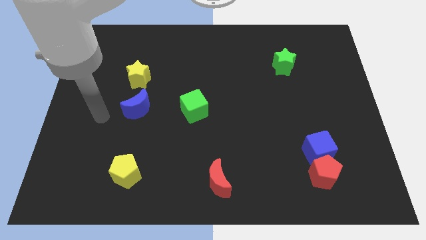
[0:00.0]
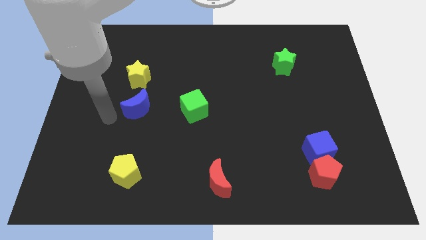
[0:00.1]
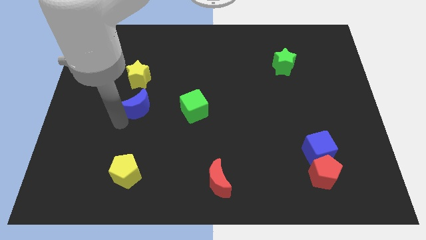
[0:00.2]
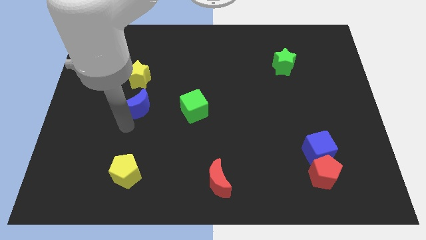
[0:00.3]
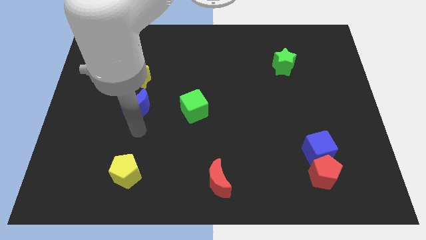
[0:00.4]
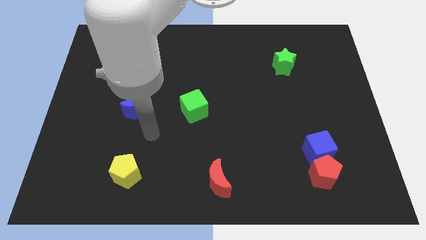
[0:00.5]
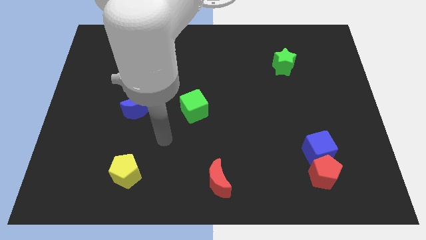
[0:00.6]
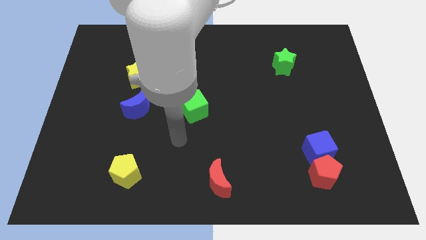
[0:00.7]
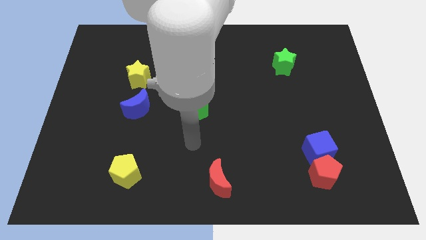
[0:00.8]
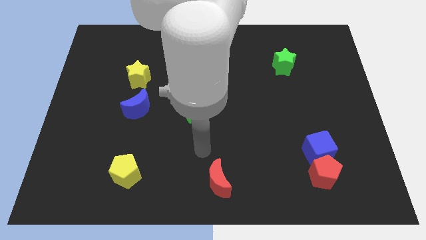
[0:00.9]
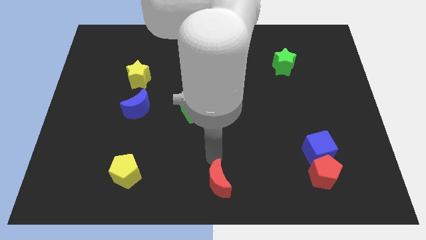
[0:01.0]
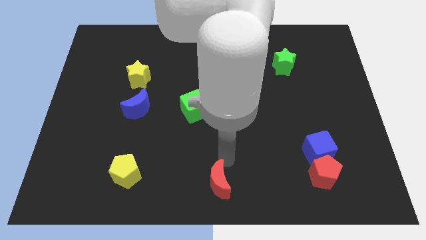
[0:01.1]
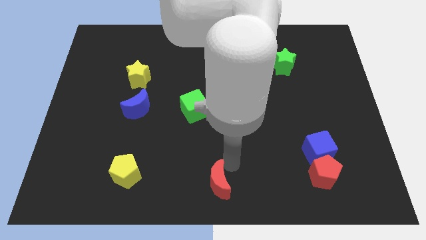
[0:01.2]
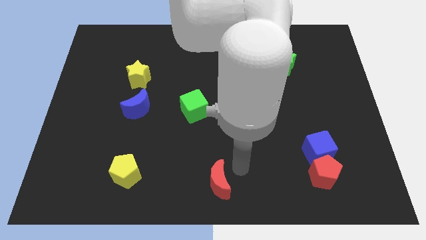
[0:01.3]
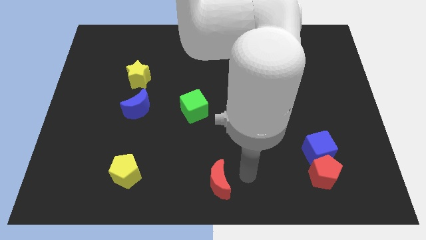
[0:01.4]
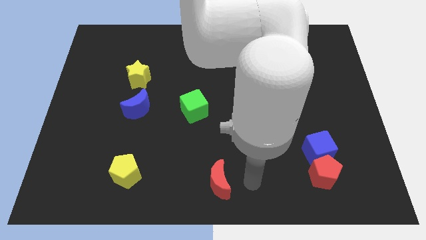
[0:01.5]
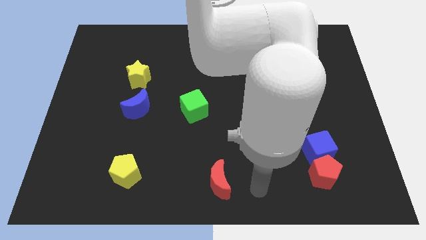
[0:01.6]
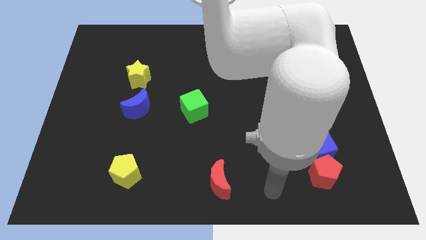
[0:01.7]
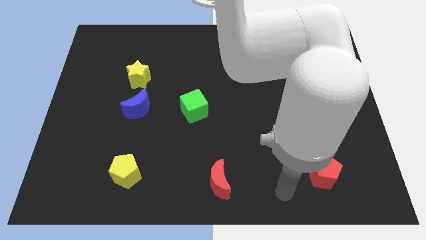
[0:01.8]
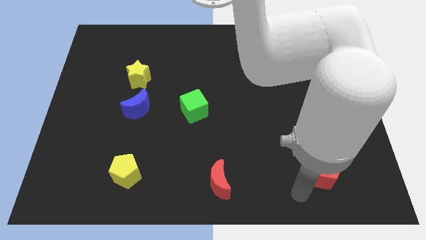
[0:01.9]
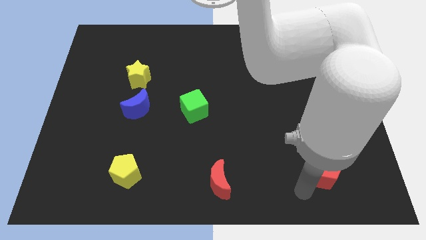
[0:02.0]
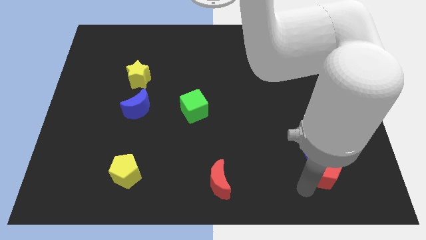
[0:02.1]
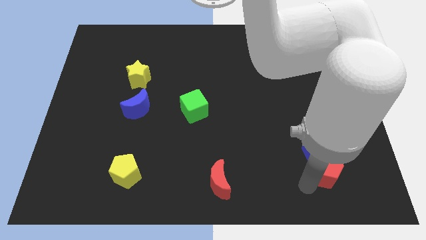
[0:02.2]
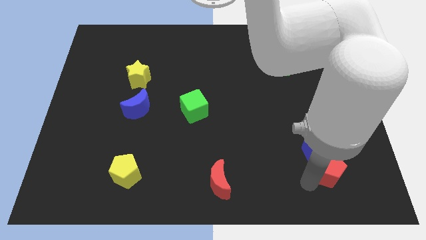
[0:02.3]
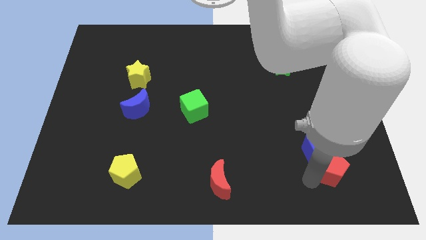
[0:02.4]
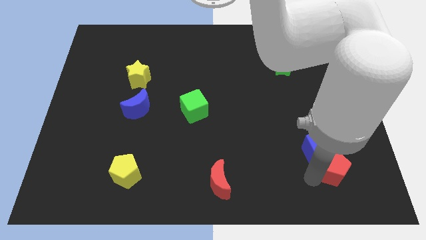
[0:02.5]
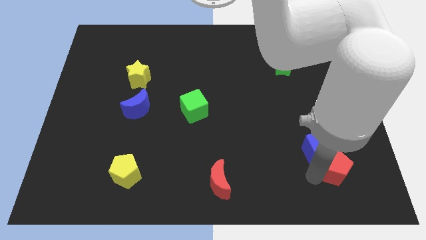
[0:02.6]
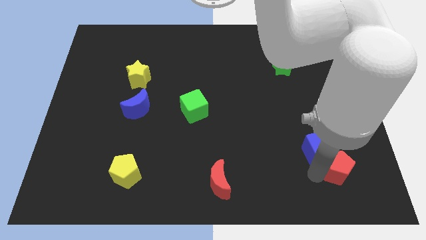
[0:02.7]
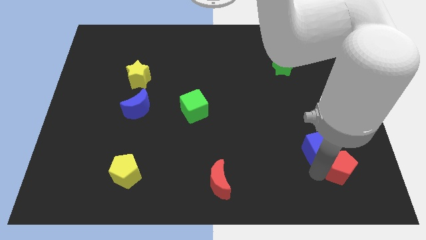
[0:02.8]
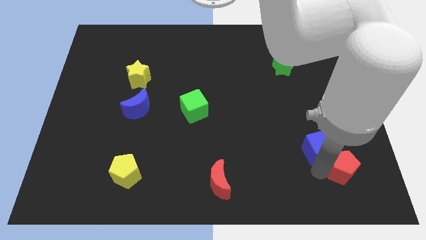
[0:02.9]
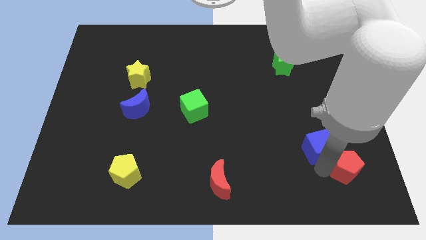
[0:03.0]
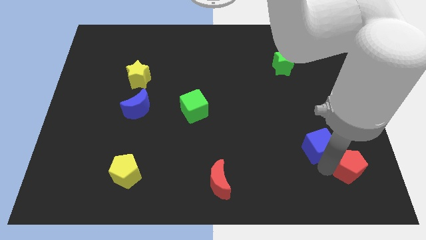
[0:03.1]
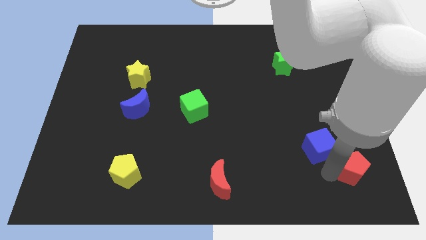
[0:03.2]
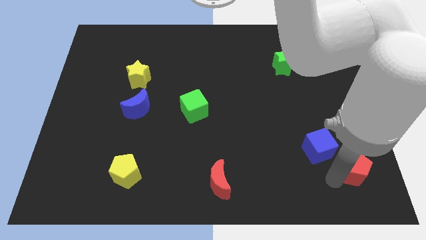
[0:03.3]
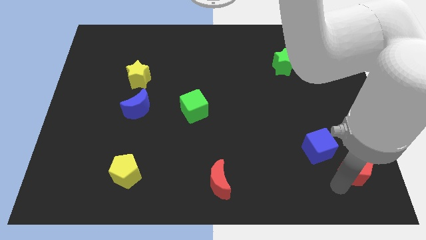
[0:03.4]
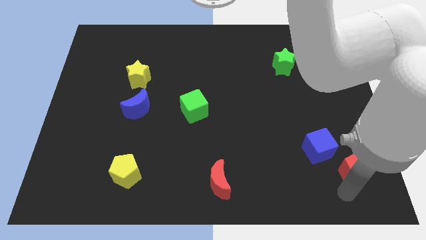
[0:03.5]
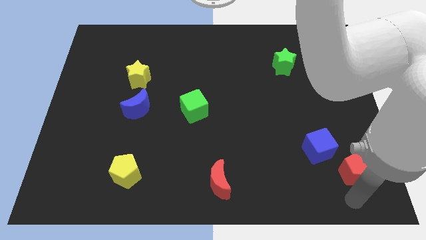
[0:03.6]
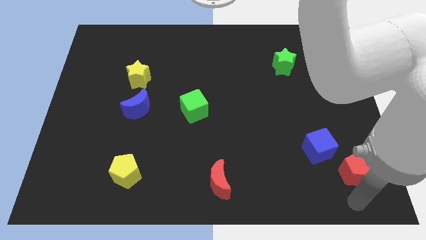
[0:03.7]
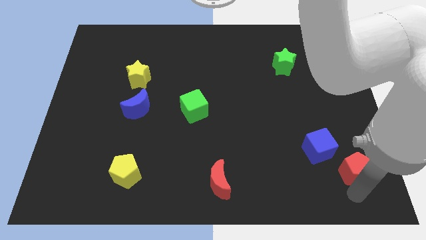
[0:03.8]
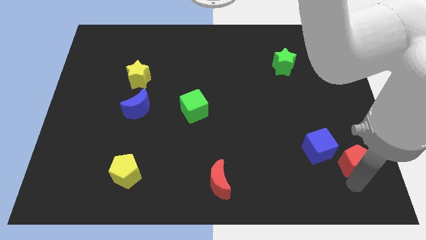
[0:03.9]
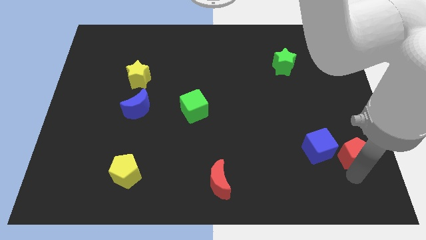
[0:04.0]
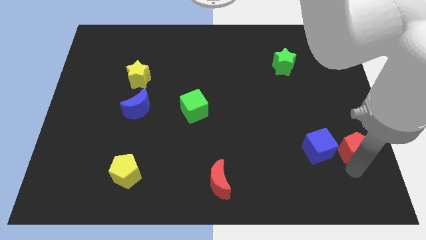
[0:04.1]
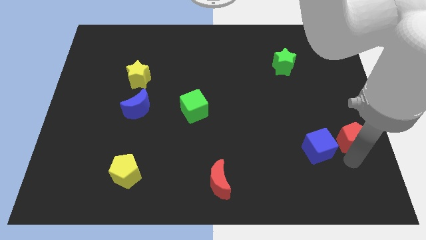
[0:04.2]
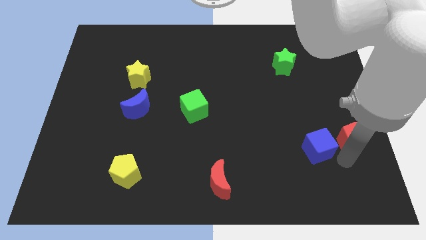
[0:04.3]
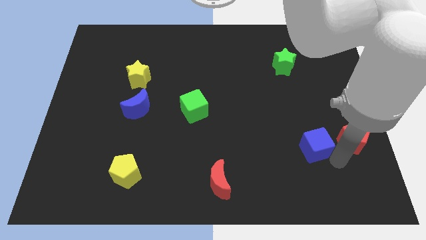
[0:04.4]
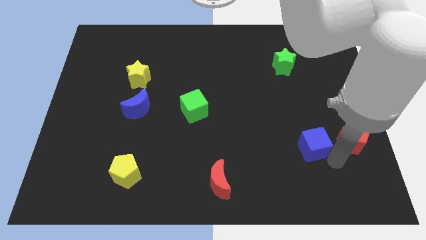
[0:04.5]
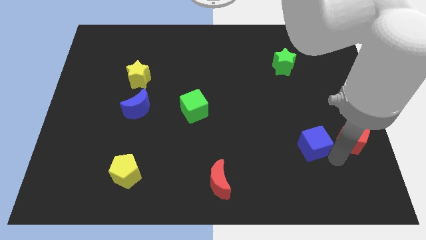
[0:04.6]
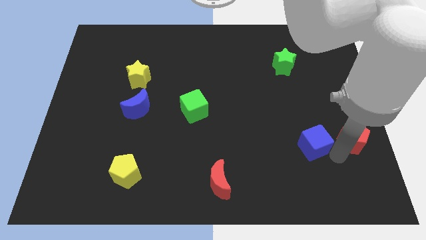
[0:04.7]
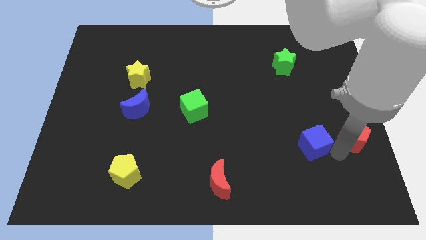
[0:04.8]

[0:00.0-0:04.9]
put the red pentagon to the center right

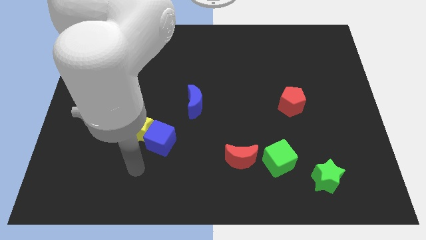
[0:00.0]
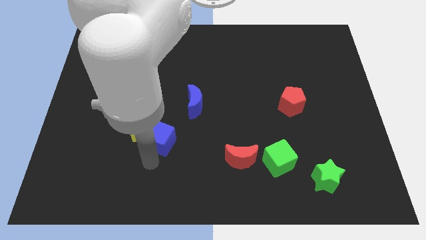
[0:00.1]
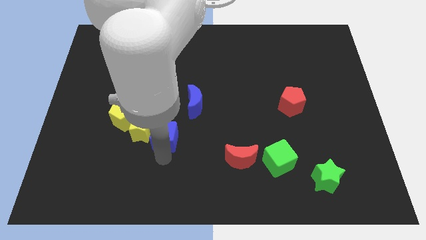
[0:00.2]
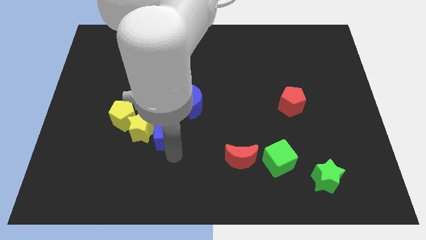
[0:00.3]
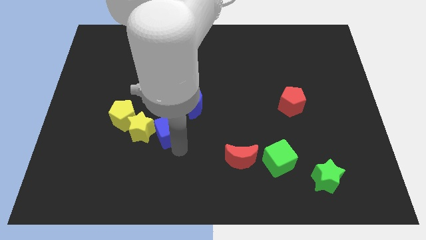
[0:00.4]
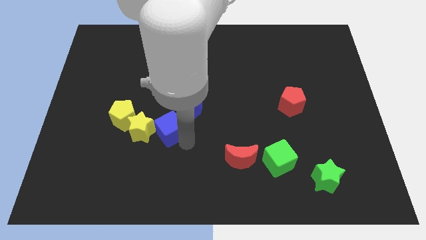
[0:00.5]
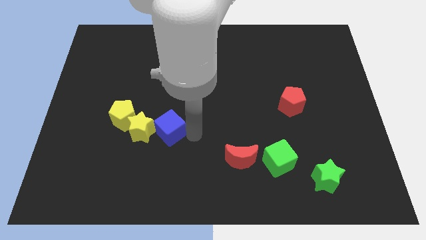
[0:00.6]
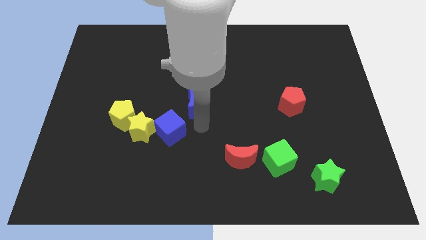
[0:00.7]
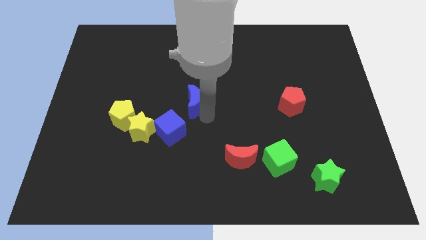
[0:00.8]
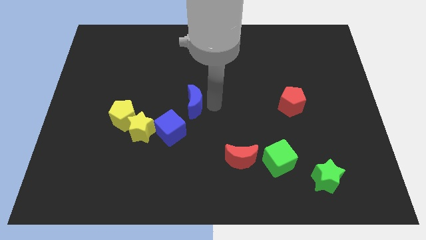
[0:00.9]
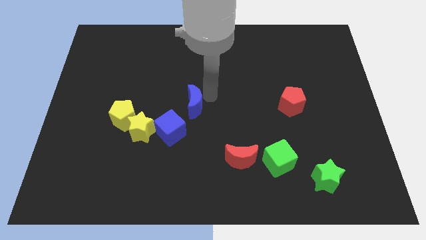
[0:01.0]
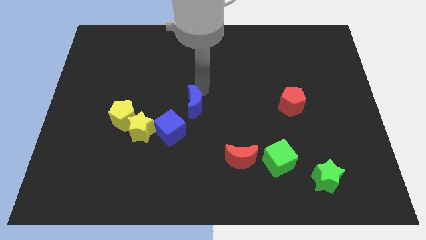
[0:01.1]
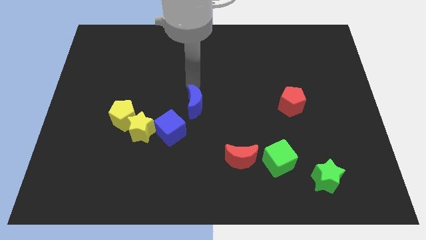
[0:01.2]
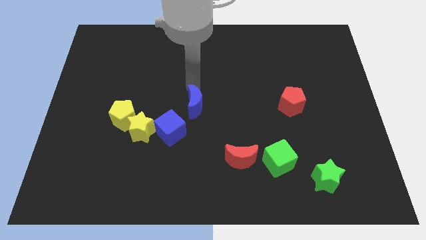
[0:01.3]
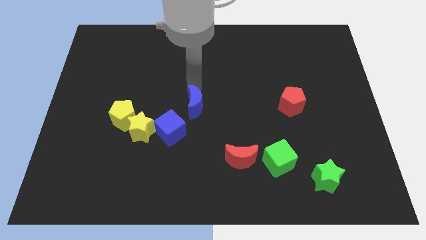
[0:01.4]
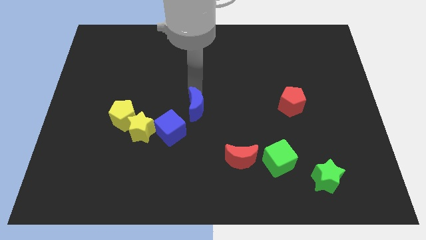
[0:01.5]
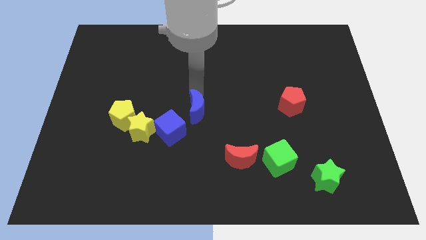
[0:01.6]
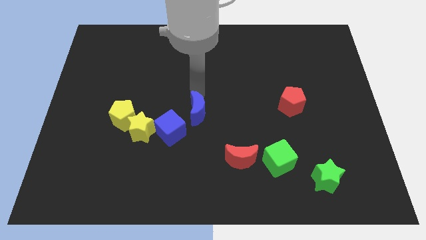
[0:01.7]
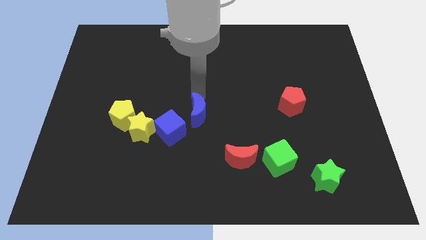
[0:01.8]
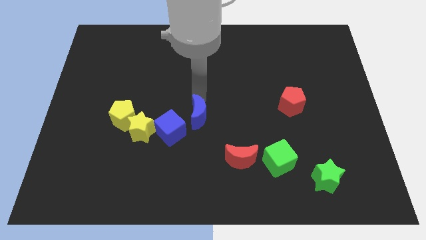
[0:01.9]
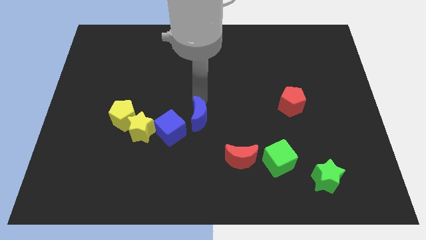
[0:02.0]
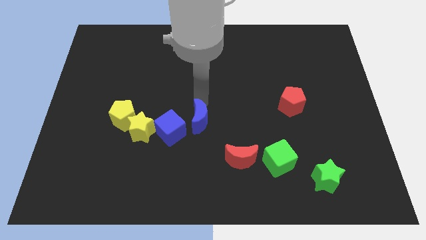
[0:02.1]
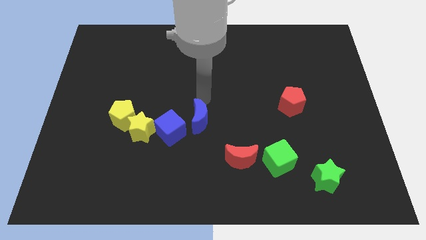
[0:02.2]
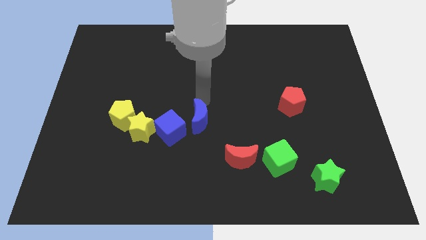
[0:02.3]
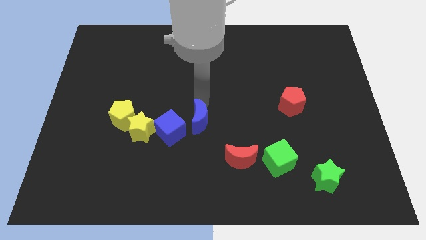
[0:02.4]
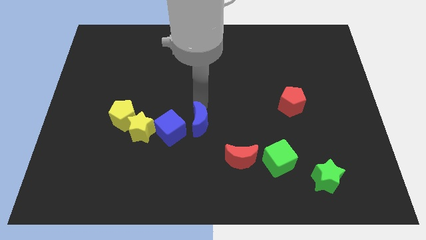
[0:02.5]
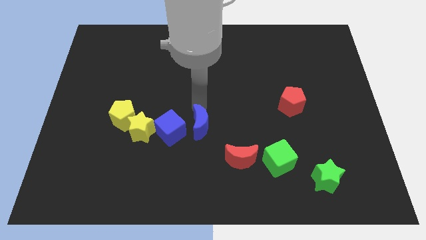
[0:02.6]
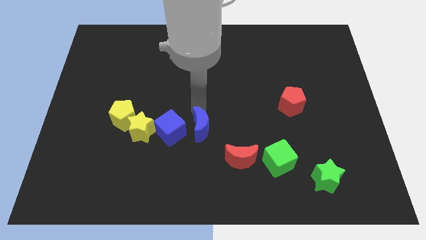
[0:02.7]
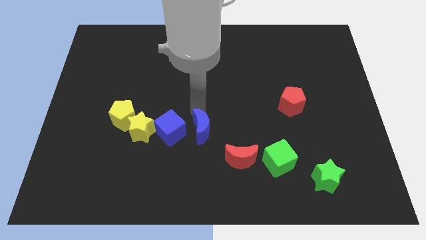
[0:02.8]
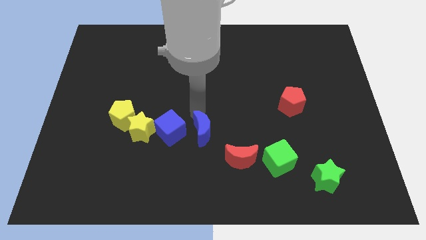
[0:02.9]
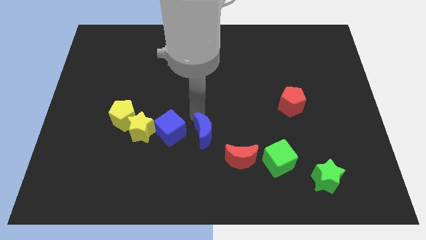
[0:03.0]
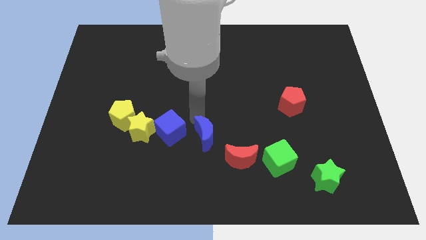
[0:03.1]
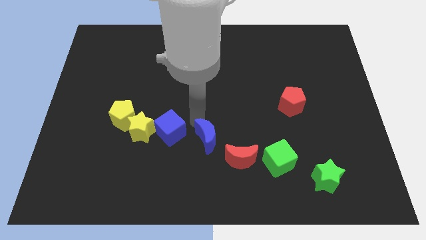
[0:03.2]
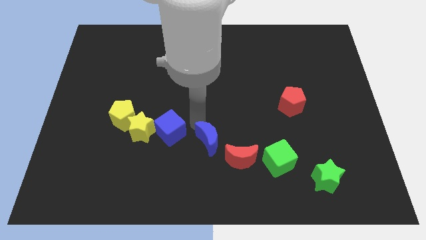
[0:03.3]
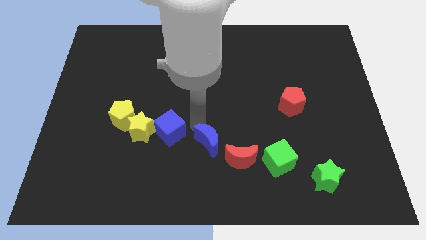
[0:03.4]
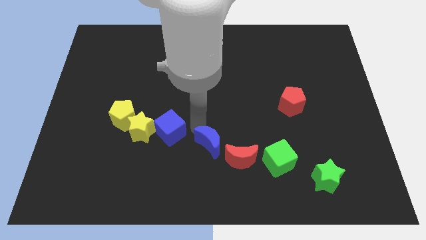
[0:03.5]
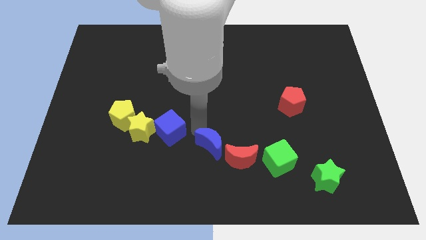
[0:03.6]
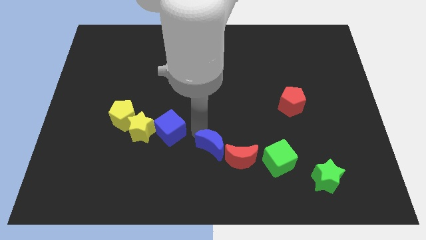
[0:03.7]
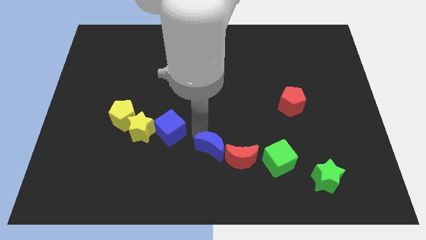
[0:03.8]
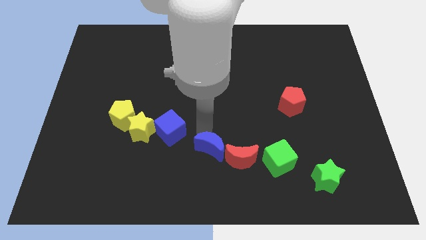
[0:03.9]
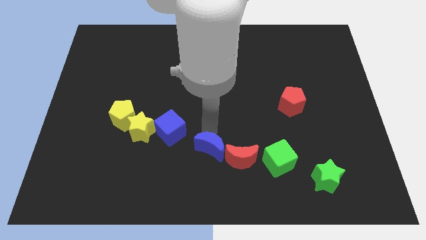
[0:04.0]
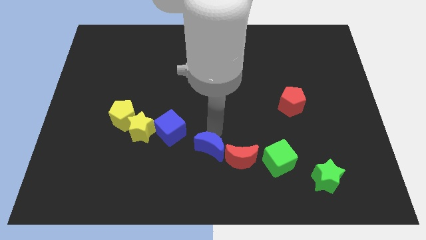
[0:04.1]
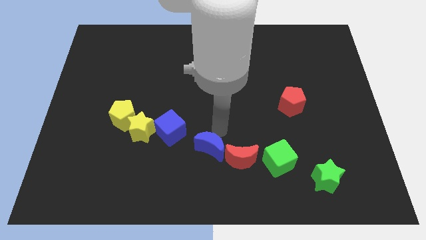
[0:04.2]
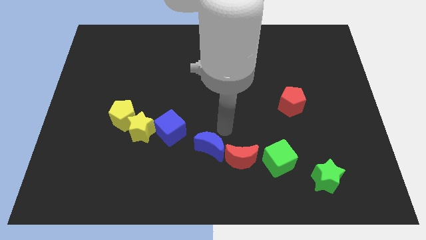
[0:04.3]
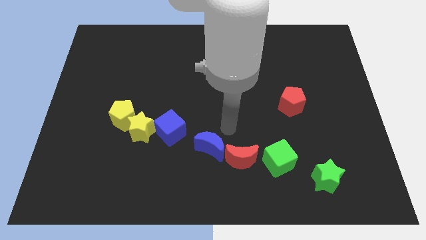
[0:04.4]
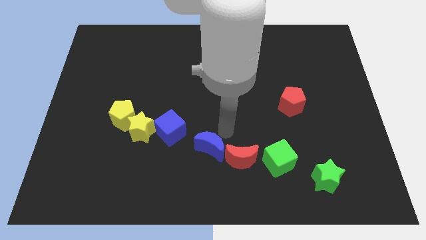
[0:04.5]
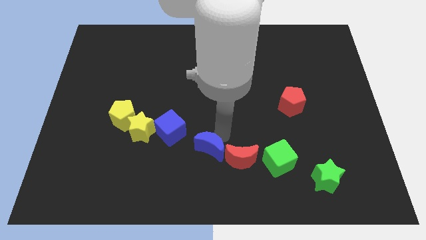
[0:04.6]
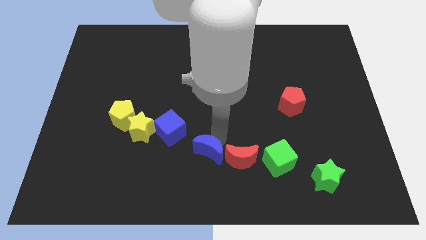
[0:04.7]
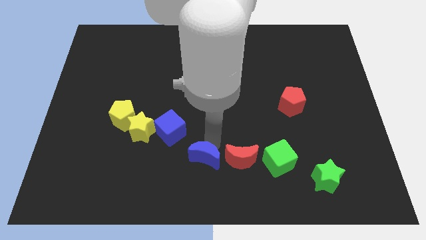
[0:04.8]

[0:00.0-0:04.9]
move the blue moon to the bottom side
